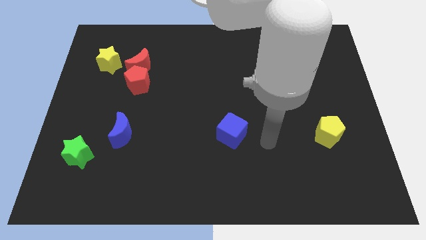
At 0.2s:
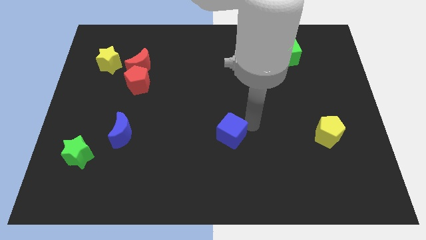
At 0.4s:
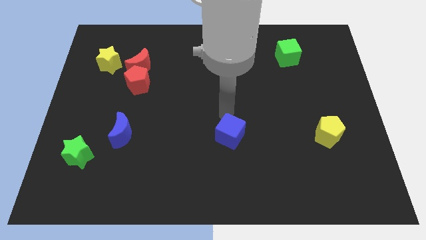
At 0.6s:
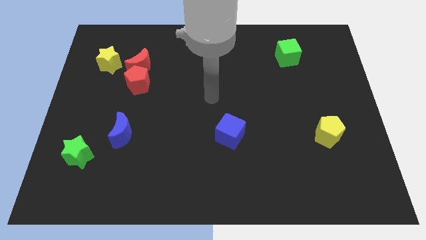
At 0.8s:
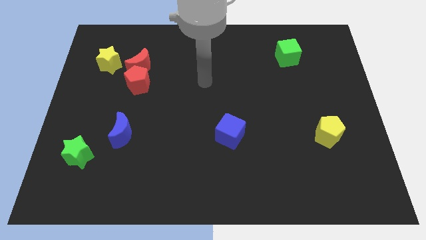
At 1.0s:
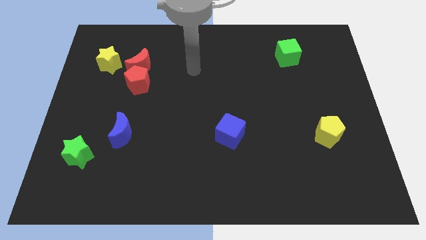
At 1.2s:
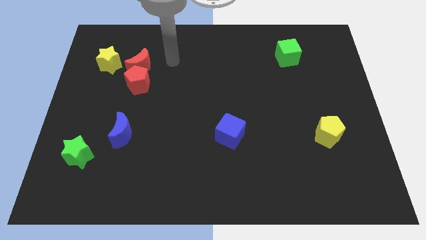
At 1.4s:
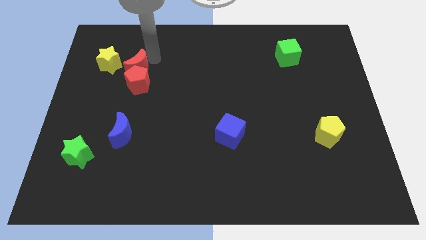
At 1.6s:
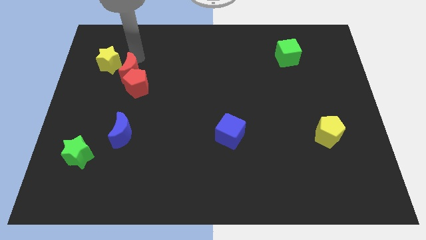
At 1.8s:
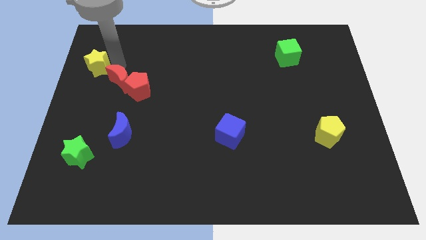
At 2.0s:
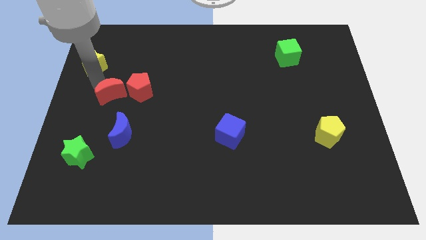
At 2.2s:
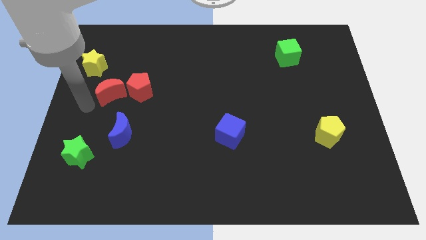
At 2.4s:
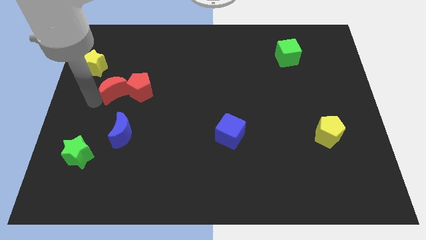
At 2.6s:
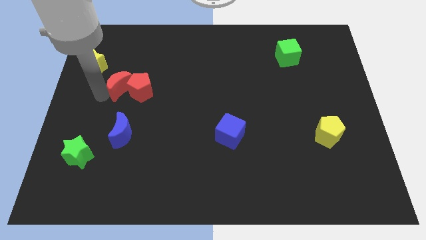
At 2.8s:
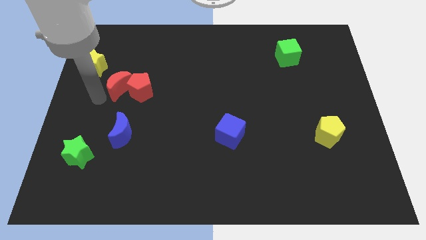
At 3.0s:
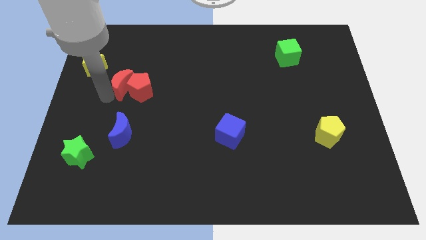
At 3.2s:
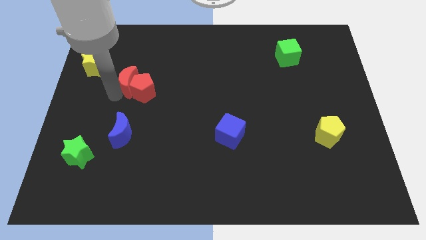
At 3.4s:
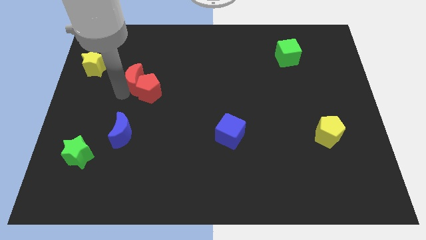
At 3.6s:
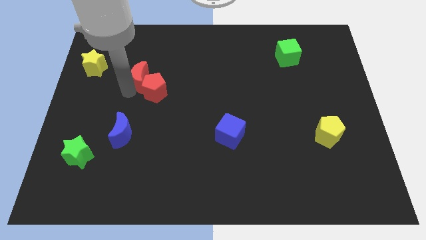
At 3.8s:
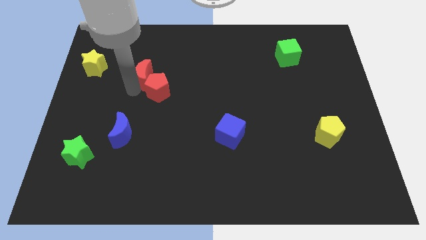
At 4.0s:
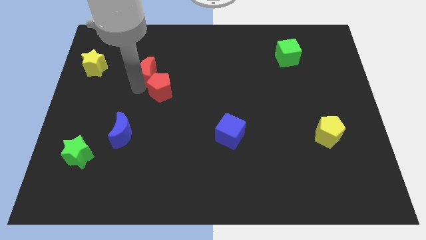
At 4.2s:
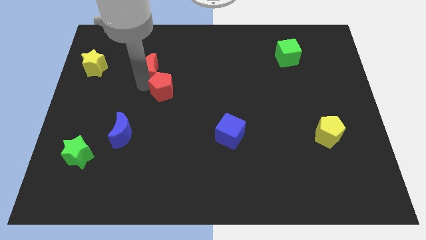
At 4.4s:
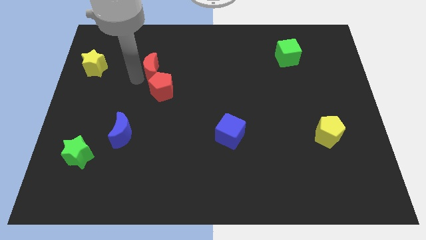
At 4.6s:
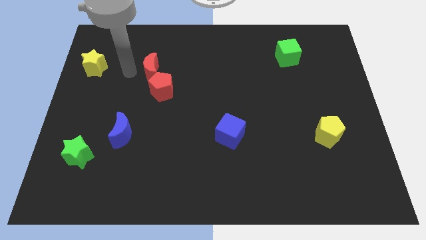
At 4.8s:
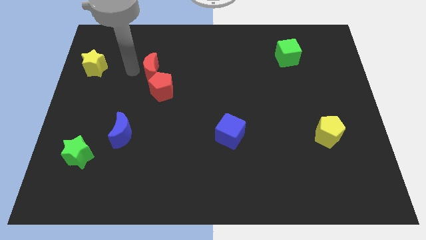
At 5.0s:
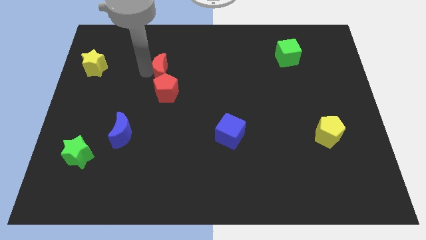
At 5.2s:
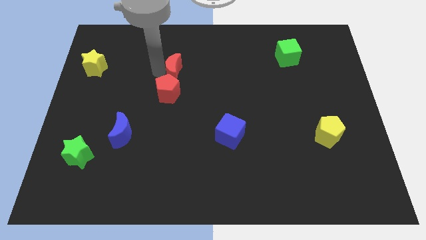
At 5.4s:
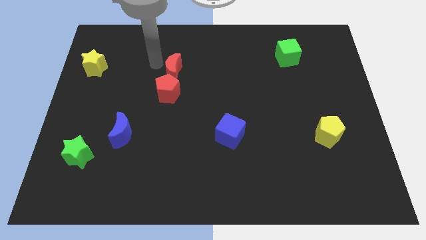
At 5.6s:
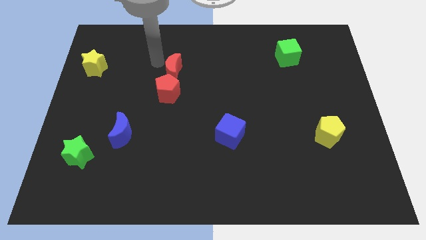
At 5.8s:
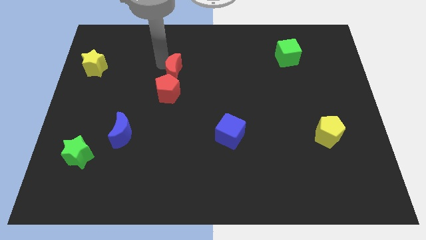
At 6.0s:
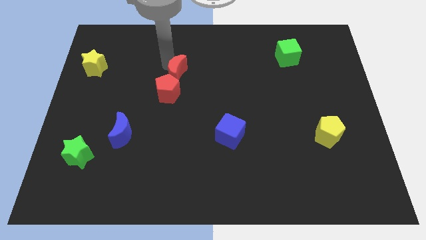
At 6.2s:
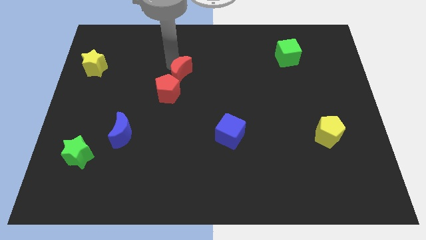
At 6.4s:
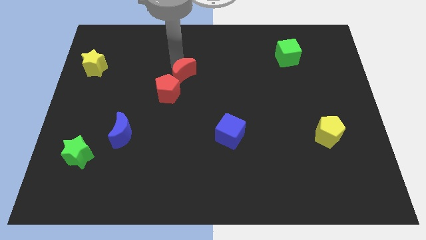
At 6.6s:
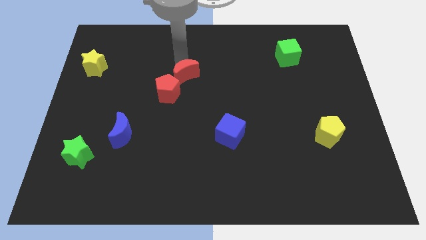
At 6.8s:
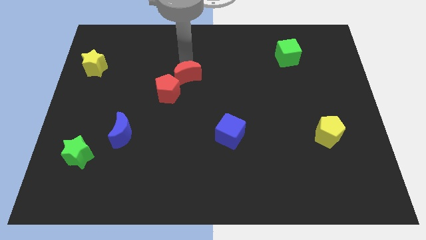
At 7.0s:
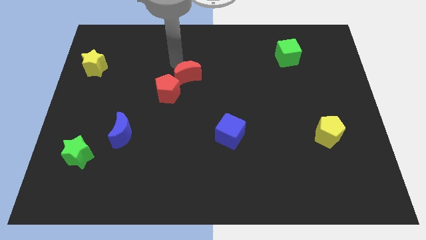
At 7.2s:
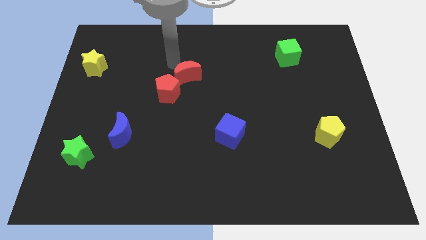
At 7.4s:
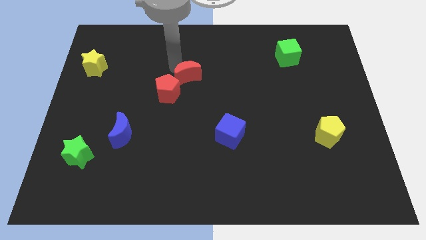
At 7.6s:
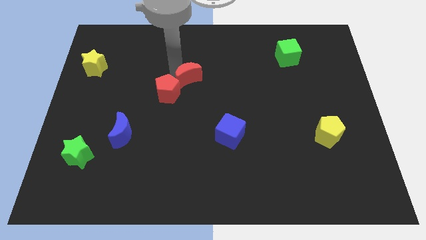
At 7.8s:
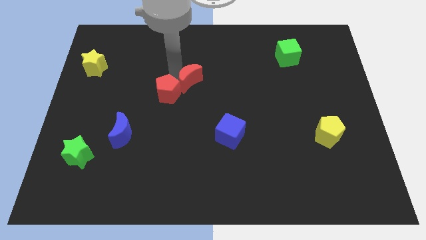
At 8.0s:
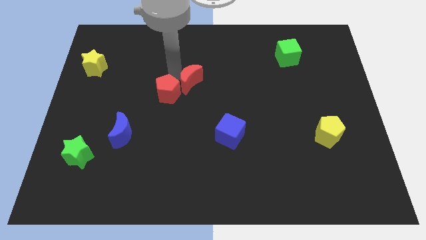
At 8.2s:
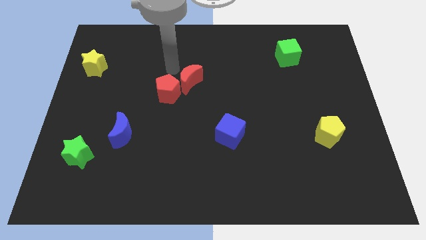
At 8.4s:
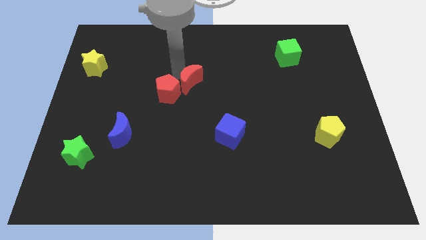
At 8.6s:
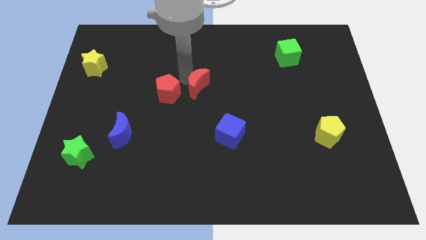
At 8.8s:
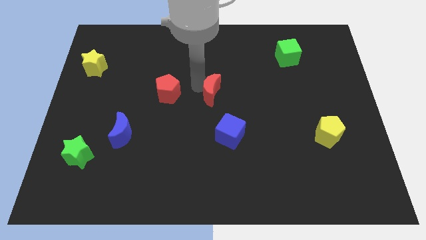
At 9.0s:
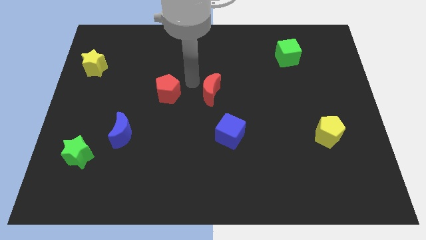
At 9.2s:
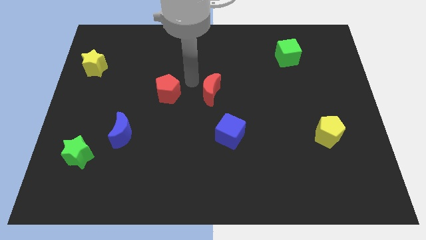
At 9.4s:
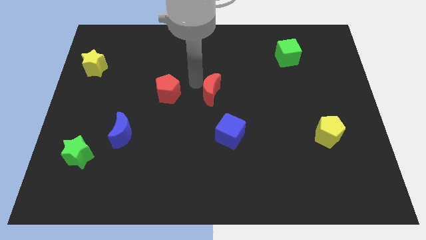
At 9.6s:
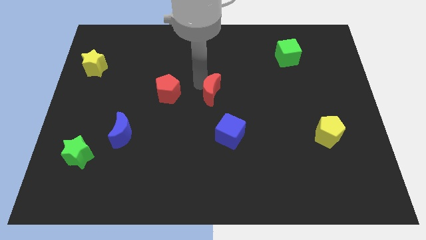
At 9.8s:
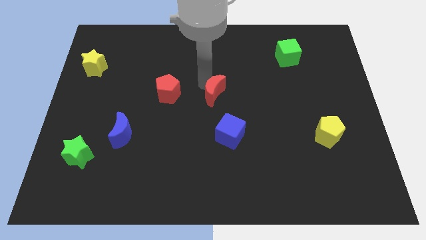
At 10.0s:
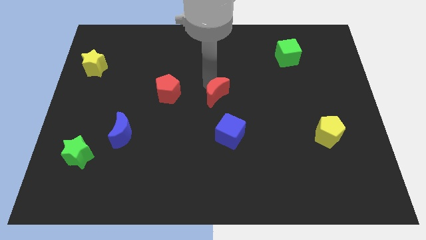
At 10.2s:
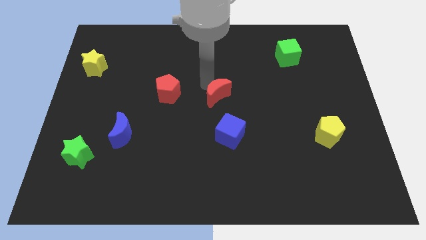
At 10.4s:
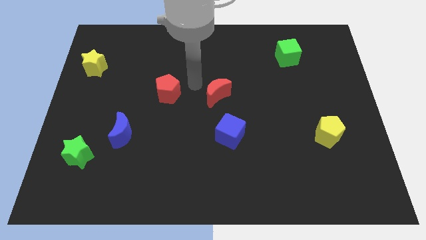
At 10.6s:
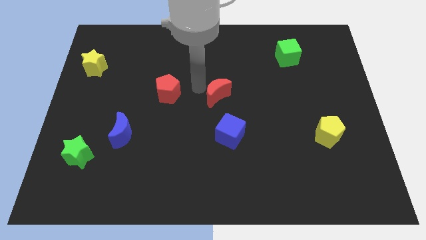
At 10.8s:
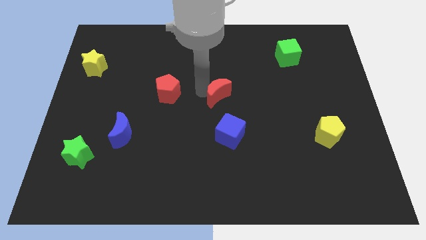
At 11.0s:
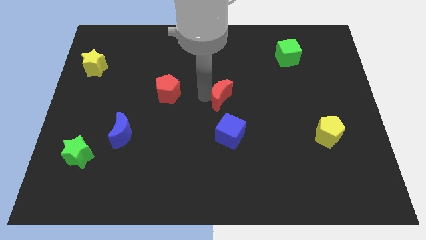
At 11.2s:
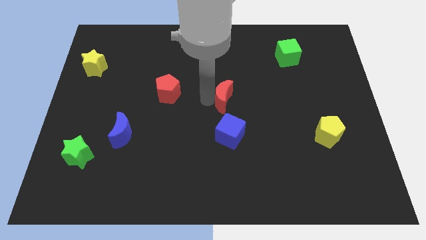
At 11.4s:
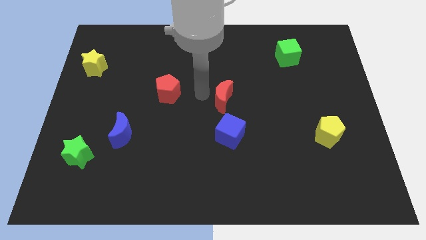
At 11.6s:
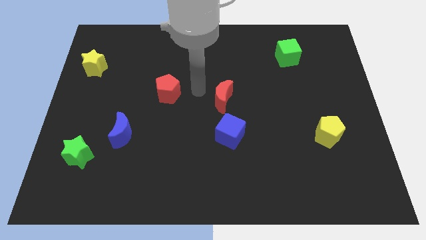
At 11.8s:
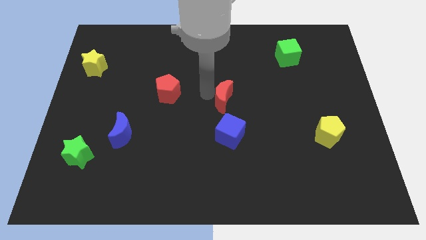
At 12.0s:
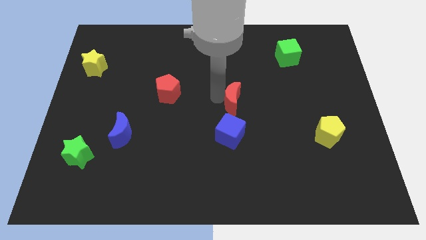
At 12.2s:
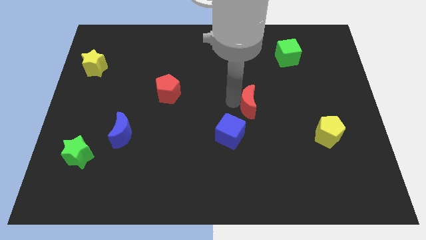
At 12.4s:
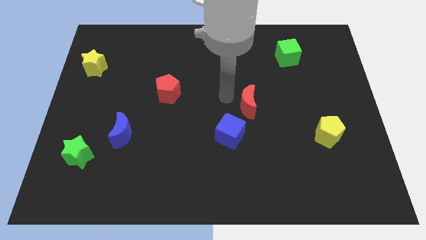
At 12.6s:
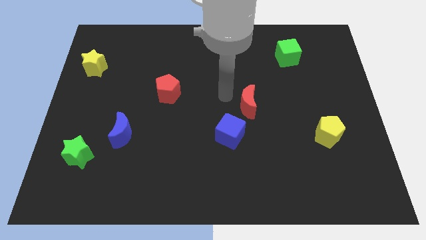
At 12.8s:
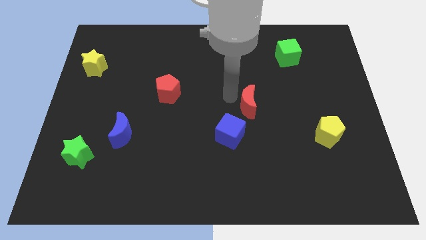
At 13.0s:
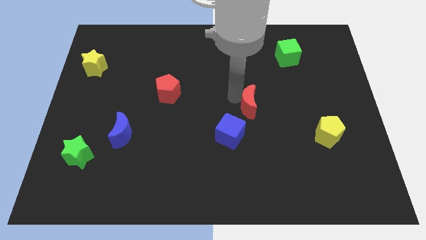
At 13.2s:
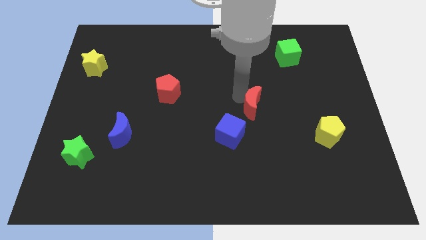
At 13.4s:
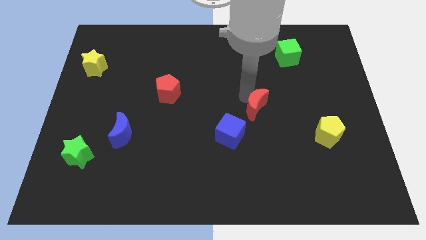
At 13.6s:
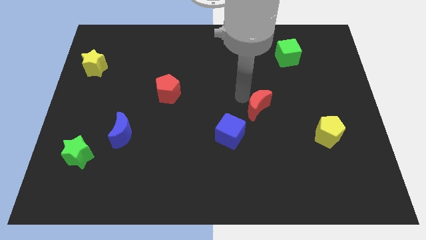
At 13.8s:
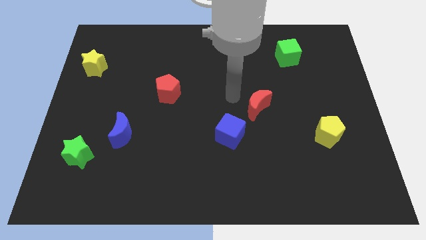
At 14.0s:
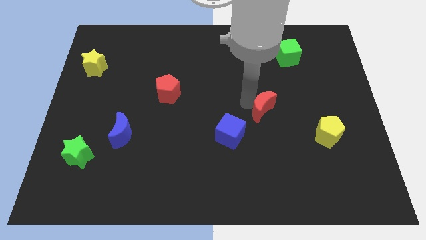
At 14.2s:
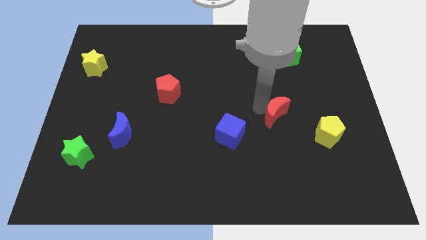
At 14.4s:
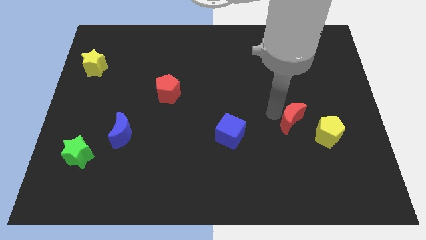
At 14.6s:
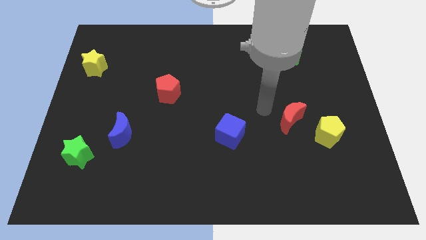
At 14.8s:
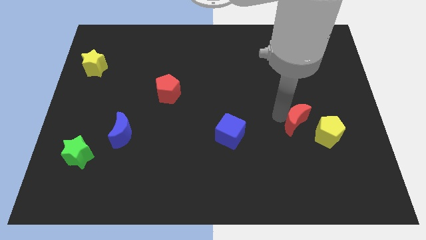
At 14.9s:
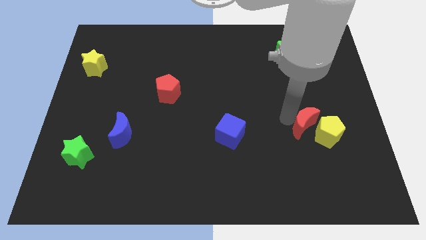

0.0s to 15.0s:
put the red moon towards the yellow pentagon
